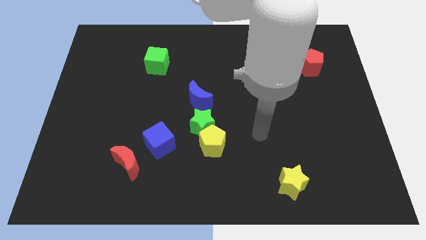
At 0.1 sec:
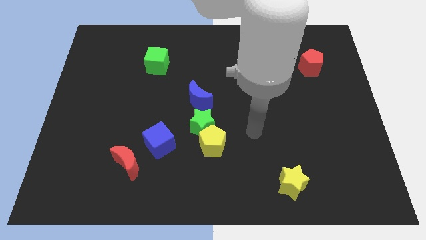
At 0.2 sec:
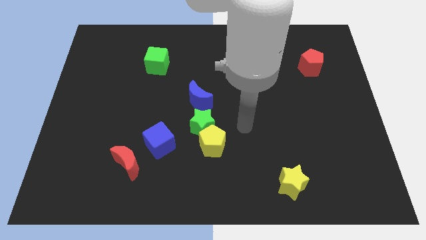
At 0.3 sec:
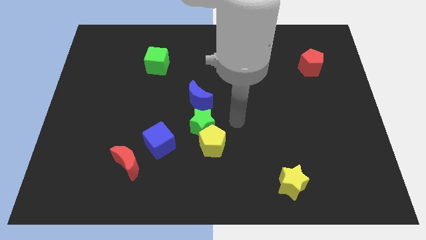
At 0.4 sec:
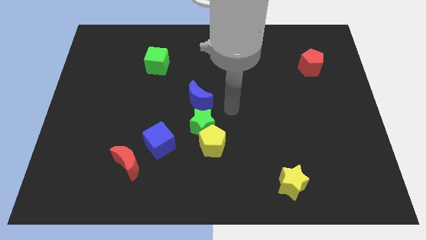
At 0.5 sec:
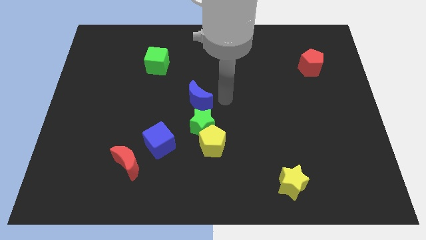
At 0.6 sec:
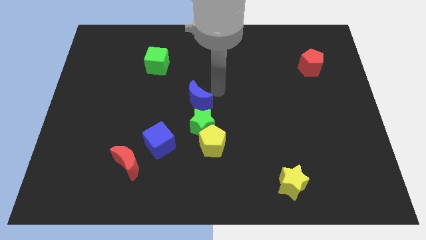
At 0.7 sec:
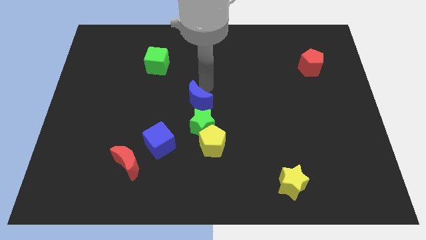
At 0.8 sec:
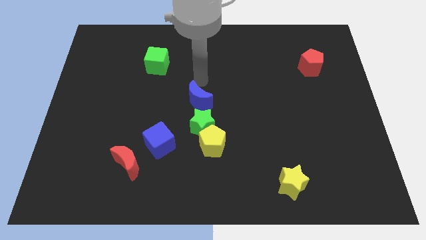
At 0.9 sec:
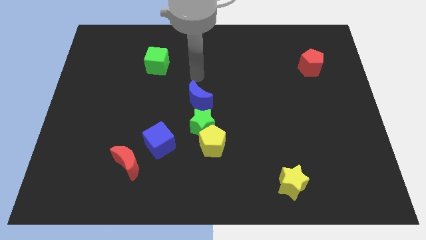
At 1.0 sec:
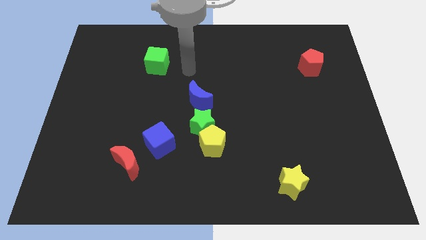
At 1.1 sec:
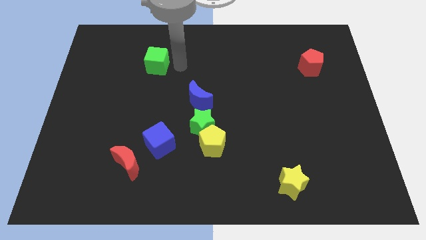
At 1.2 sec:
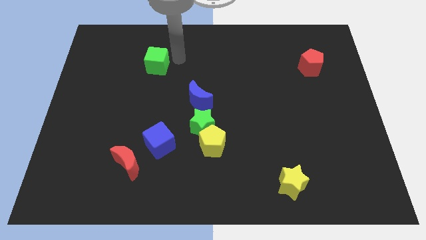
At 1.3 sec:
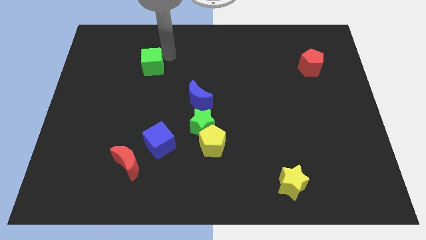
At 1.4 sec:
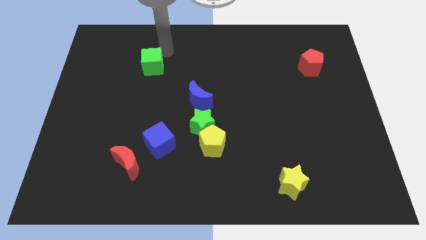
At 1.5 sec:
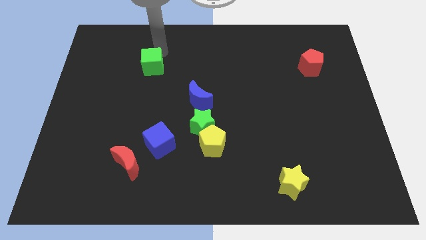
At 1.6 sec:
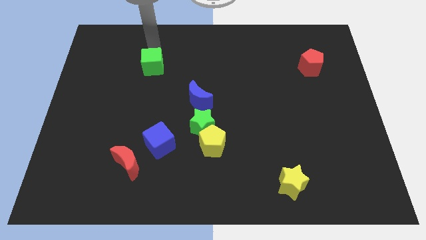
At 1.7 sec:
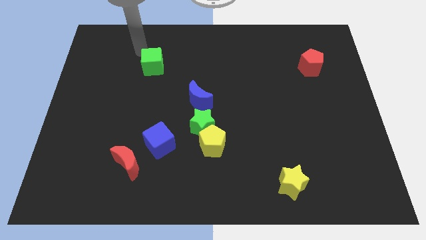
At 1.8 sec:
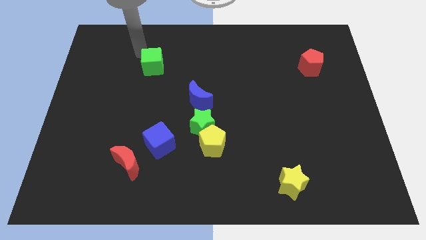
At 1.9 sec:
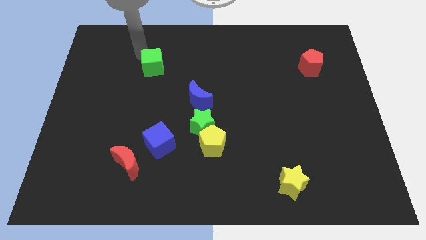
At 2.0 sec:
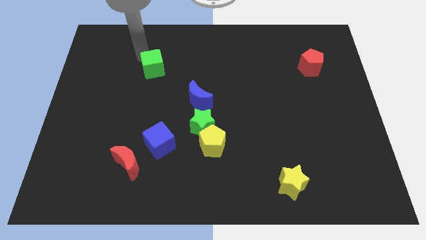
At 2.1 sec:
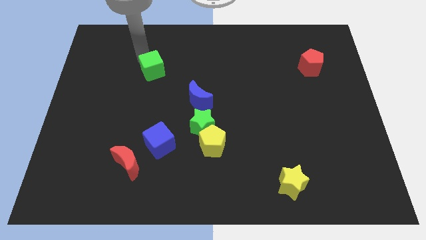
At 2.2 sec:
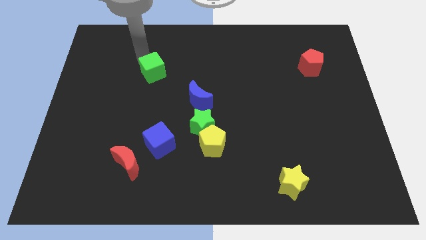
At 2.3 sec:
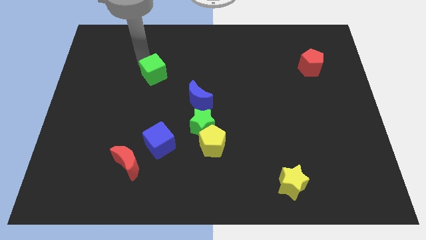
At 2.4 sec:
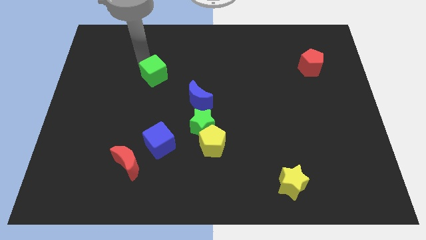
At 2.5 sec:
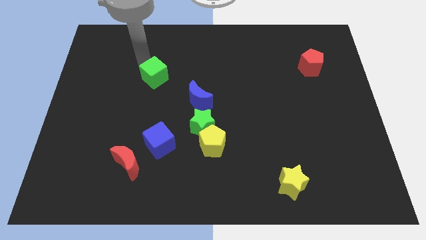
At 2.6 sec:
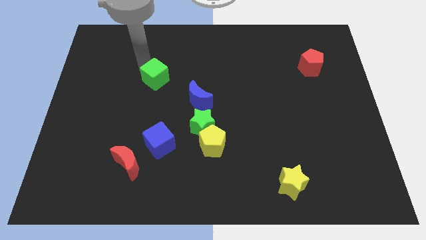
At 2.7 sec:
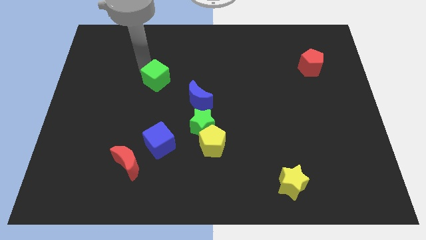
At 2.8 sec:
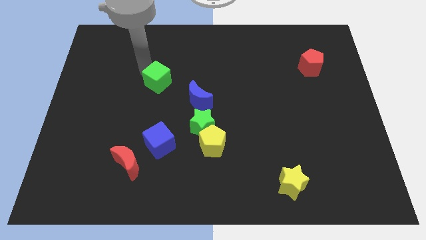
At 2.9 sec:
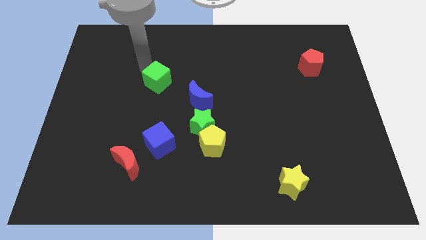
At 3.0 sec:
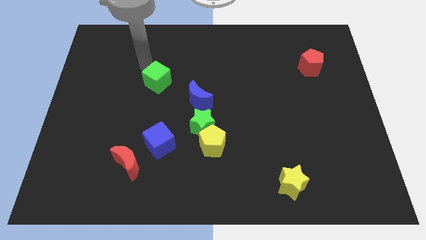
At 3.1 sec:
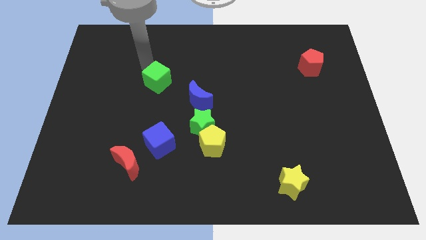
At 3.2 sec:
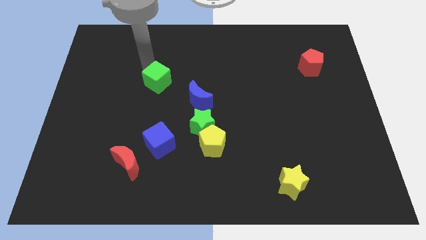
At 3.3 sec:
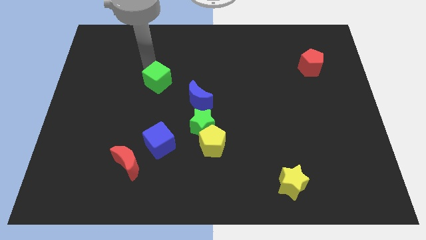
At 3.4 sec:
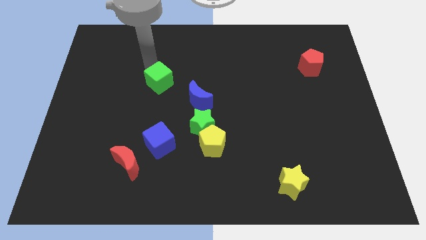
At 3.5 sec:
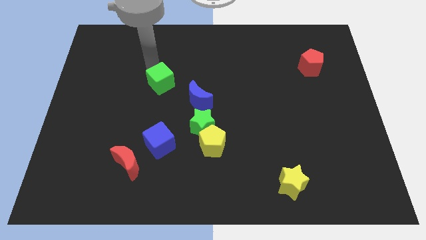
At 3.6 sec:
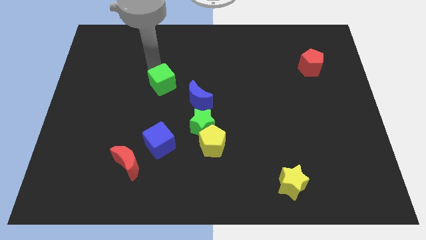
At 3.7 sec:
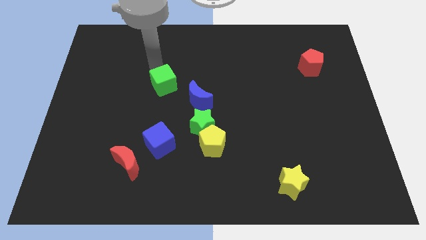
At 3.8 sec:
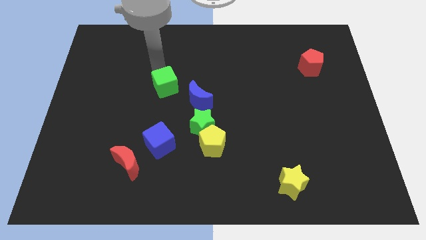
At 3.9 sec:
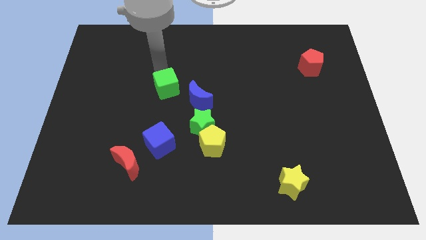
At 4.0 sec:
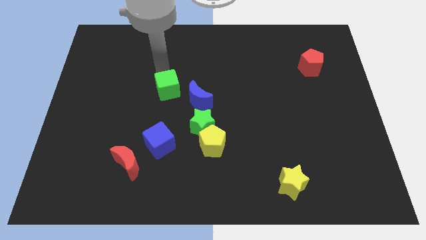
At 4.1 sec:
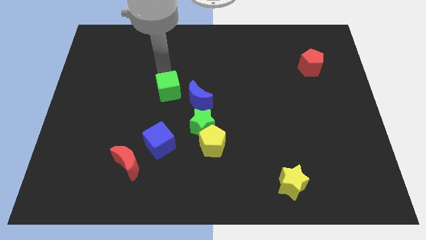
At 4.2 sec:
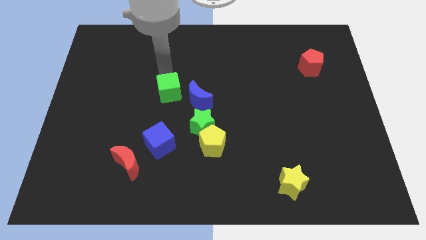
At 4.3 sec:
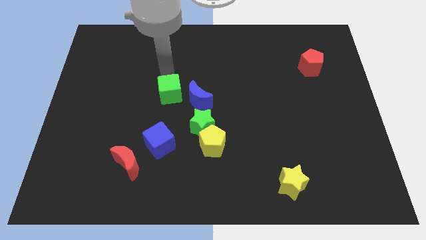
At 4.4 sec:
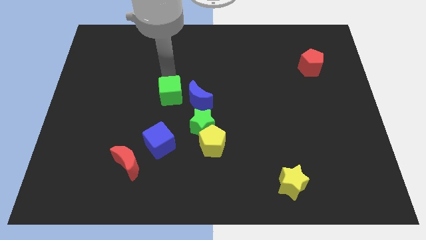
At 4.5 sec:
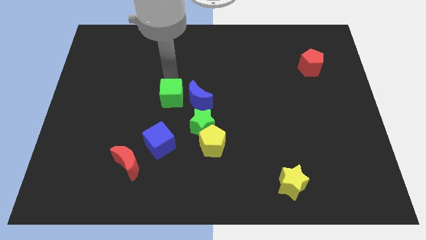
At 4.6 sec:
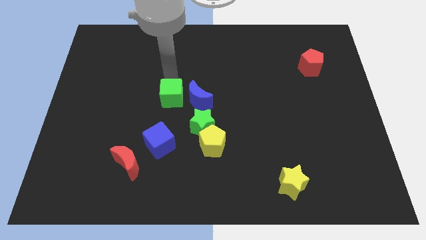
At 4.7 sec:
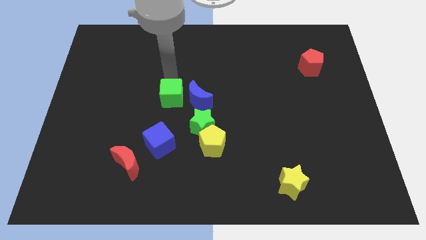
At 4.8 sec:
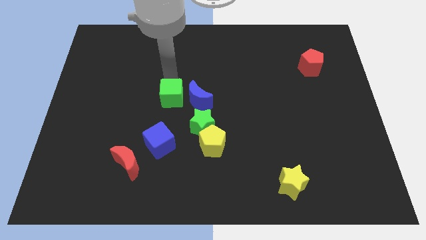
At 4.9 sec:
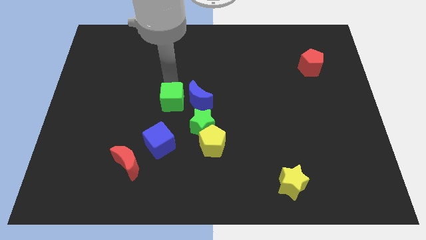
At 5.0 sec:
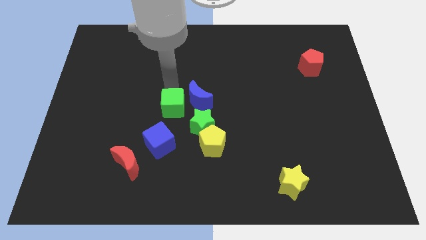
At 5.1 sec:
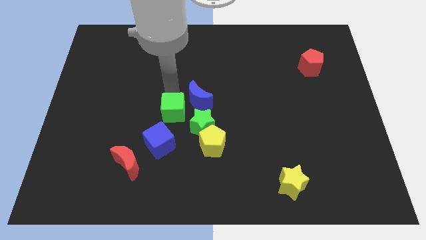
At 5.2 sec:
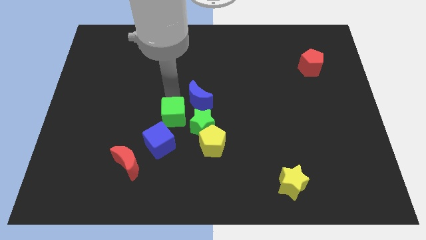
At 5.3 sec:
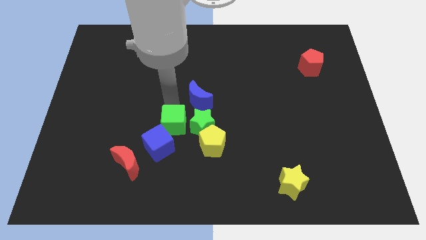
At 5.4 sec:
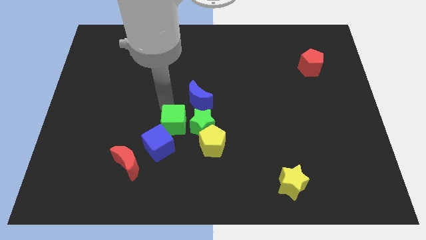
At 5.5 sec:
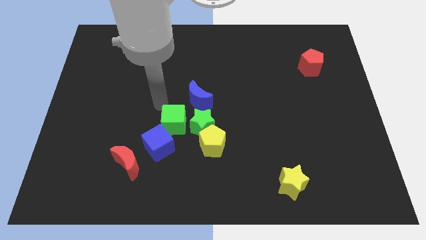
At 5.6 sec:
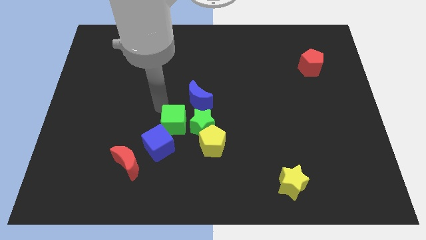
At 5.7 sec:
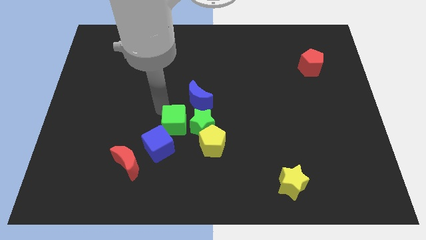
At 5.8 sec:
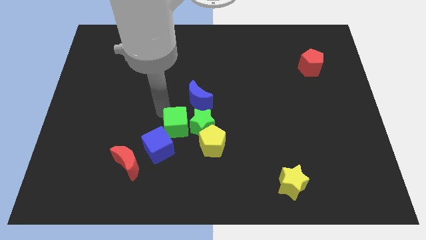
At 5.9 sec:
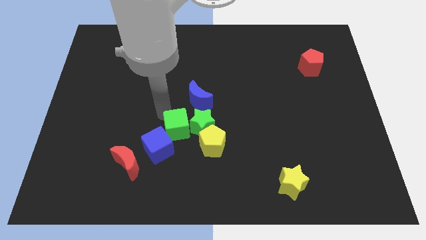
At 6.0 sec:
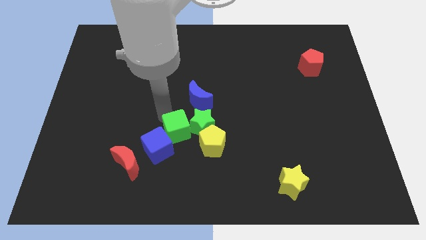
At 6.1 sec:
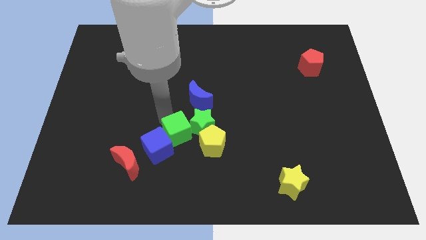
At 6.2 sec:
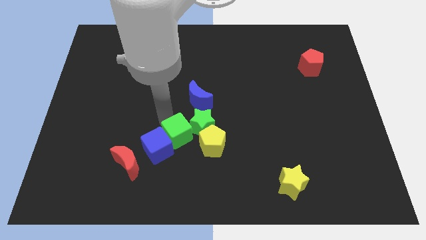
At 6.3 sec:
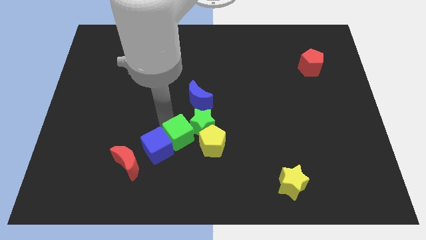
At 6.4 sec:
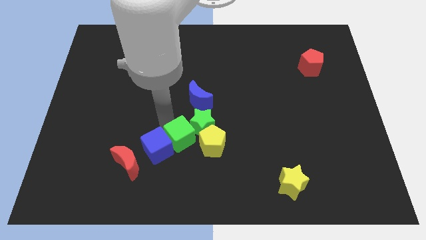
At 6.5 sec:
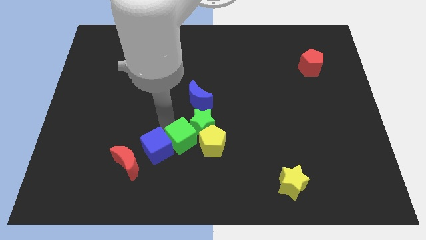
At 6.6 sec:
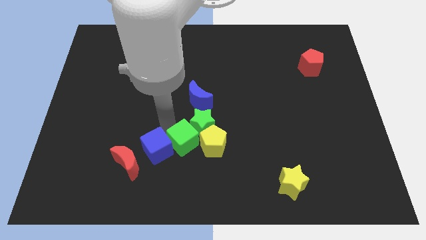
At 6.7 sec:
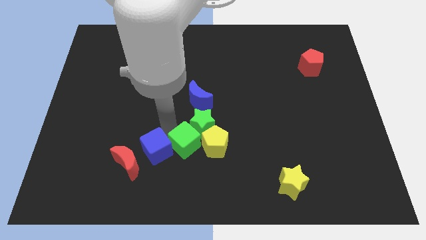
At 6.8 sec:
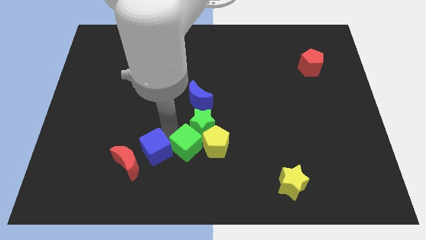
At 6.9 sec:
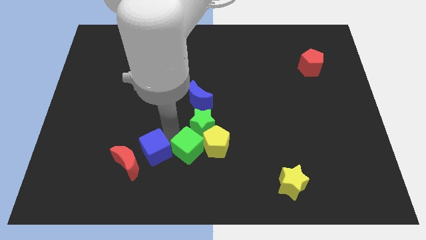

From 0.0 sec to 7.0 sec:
put the green cube towards the yellow pentagon

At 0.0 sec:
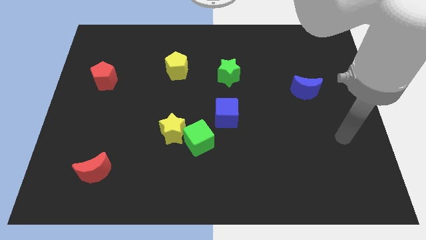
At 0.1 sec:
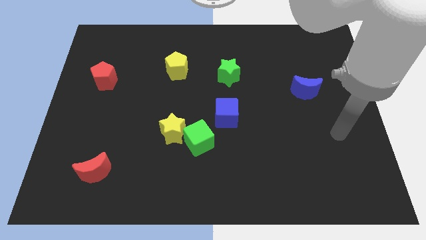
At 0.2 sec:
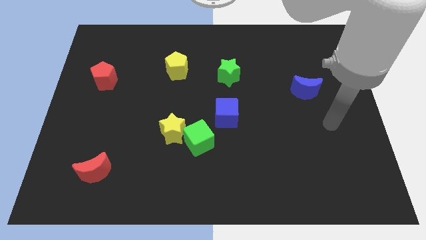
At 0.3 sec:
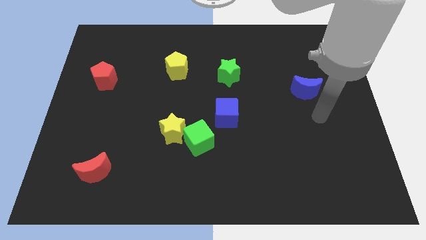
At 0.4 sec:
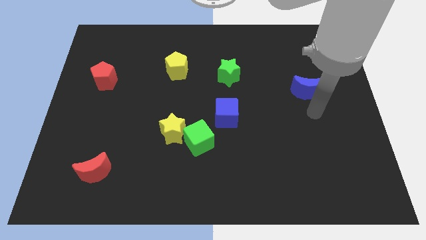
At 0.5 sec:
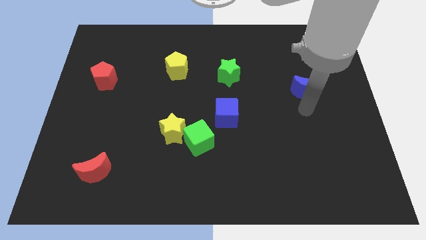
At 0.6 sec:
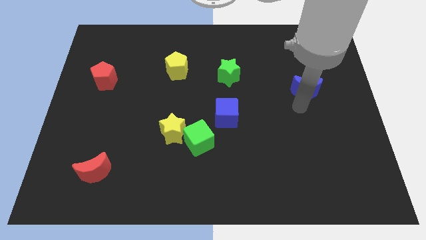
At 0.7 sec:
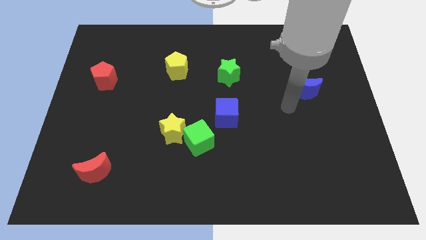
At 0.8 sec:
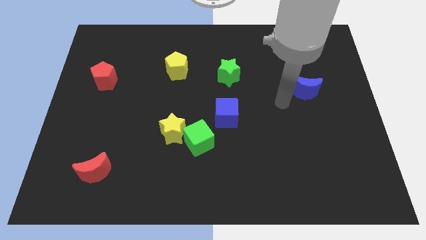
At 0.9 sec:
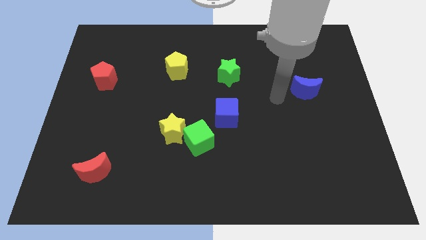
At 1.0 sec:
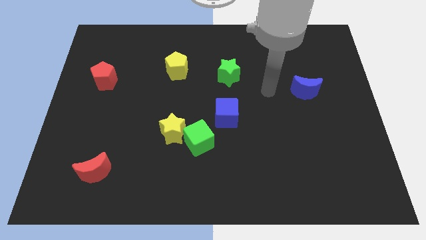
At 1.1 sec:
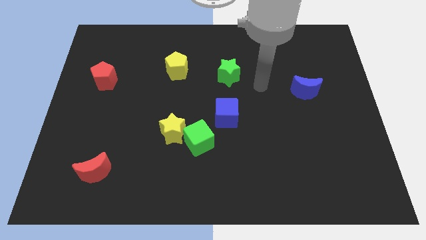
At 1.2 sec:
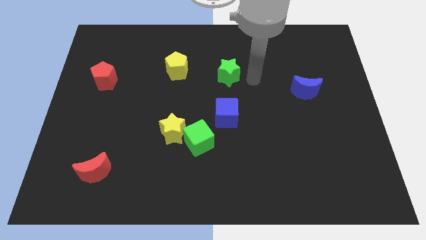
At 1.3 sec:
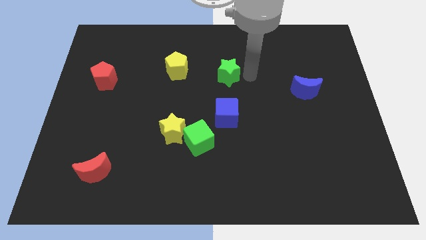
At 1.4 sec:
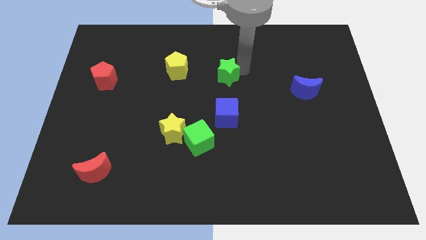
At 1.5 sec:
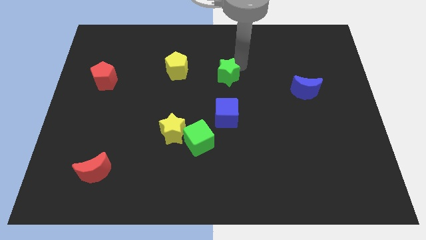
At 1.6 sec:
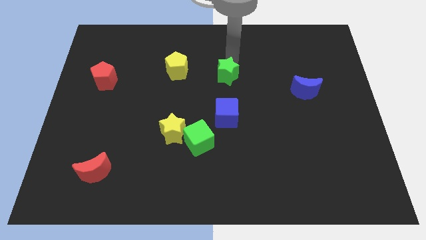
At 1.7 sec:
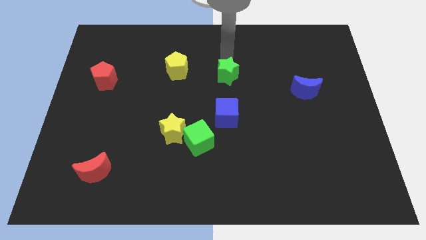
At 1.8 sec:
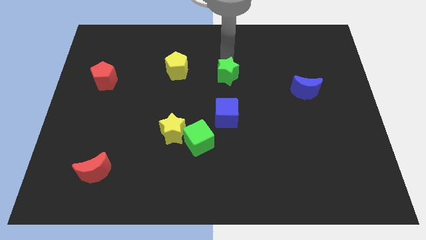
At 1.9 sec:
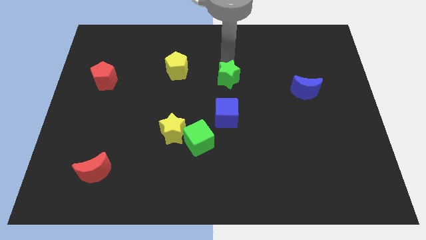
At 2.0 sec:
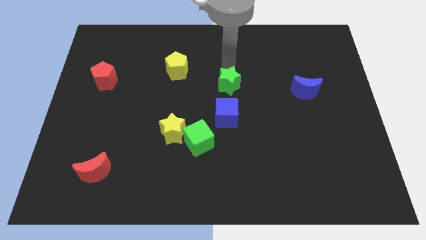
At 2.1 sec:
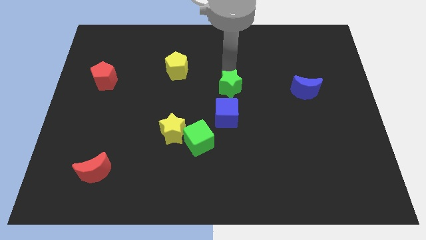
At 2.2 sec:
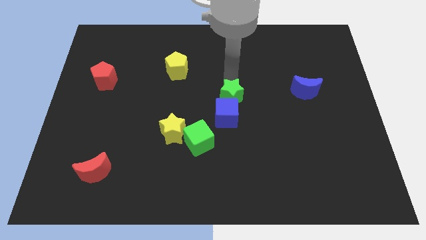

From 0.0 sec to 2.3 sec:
slide the green star next to the blue cube
